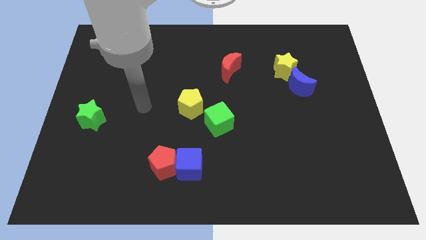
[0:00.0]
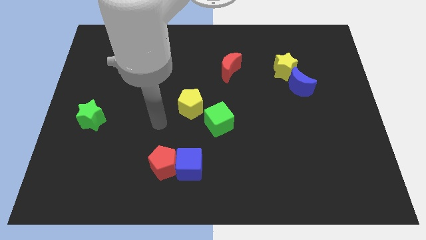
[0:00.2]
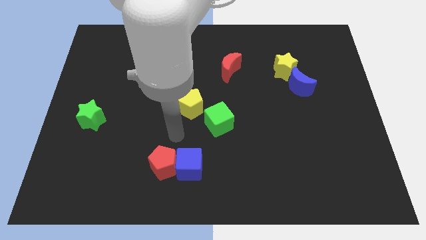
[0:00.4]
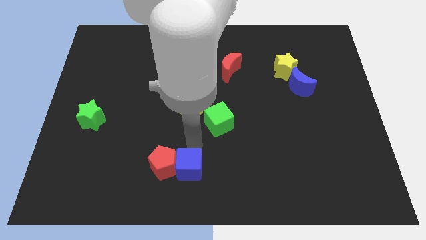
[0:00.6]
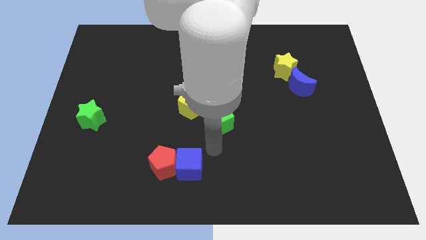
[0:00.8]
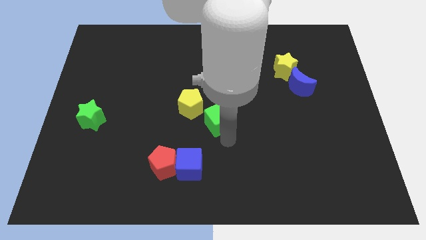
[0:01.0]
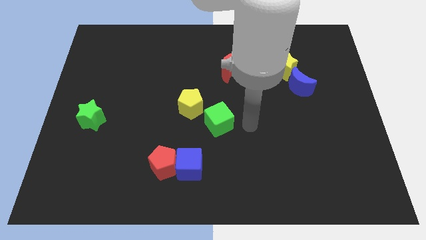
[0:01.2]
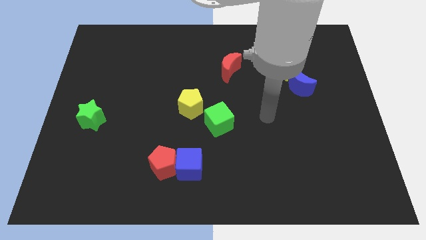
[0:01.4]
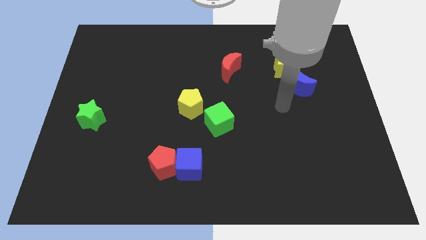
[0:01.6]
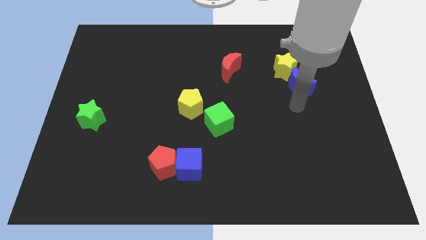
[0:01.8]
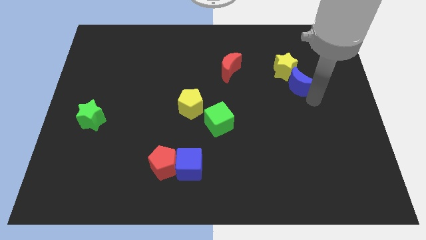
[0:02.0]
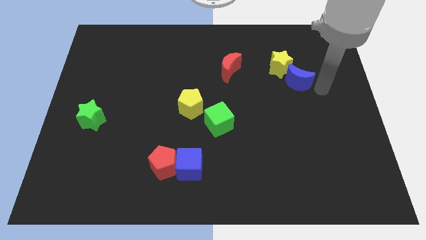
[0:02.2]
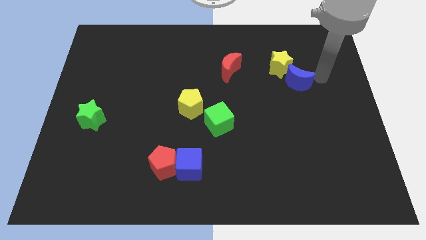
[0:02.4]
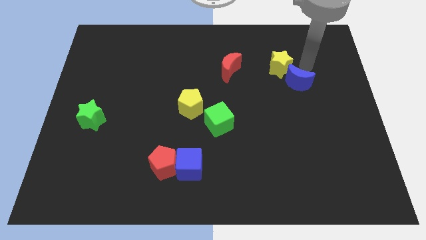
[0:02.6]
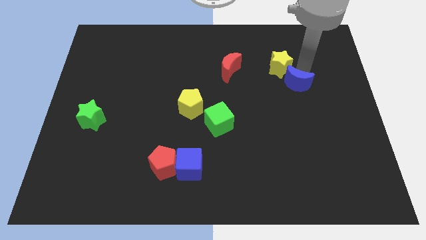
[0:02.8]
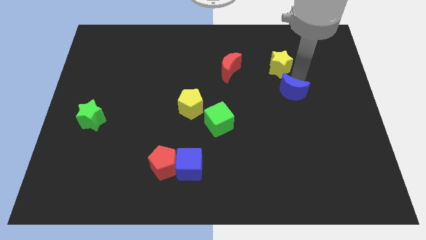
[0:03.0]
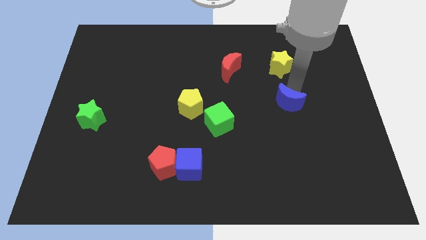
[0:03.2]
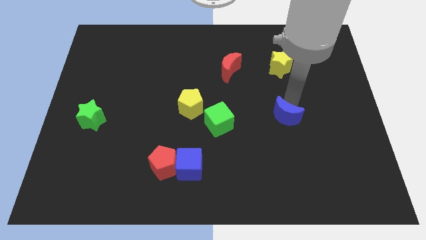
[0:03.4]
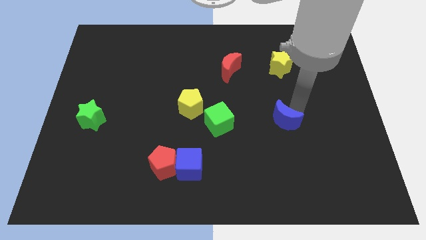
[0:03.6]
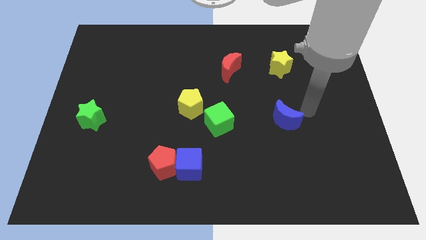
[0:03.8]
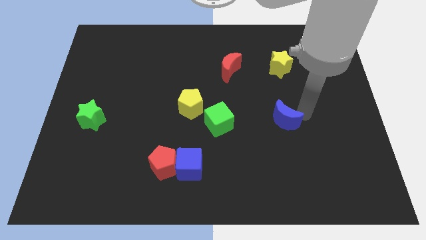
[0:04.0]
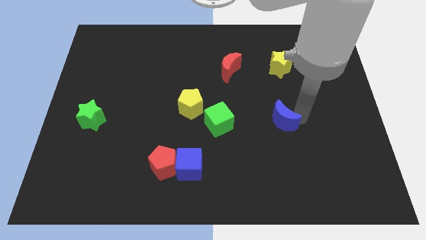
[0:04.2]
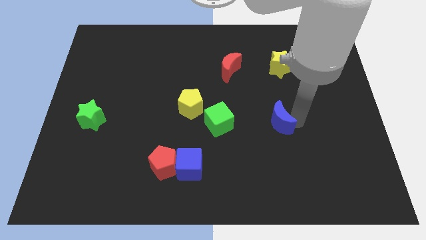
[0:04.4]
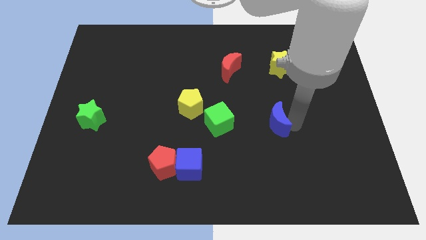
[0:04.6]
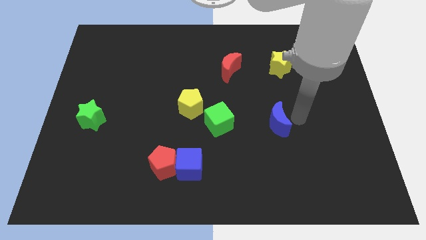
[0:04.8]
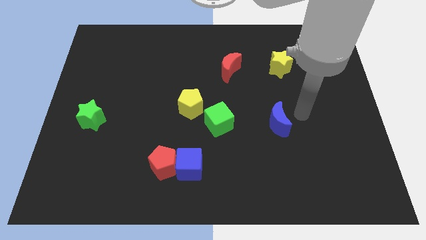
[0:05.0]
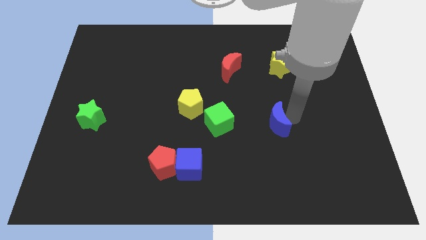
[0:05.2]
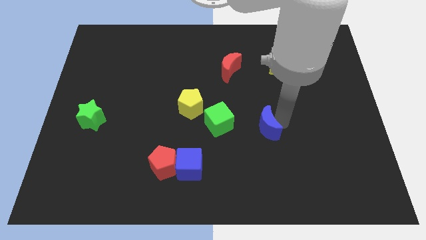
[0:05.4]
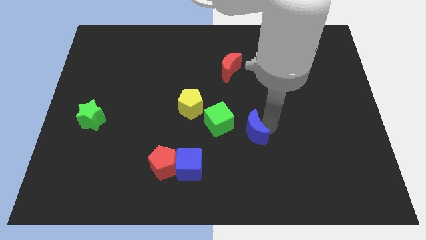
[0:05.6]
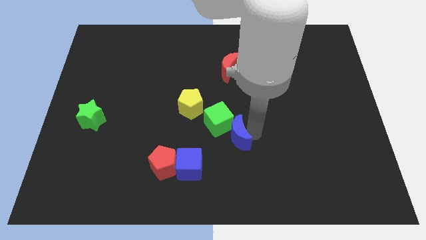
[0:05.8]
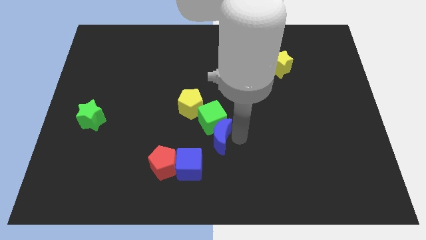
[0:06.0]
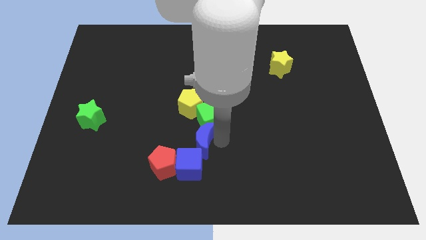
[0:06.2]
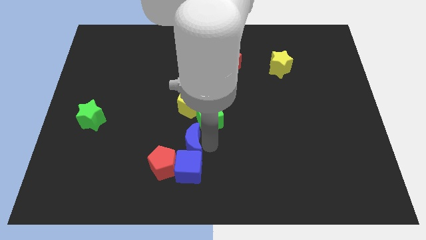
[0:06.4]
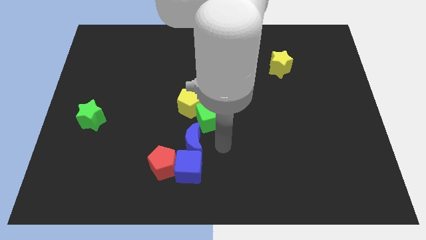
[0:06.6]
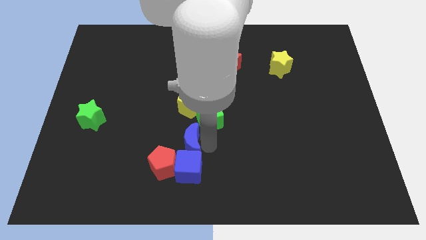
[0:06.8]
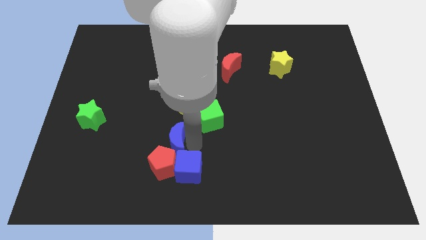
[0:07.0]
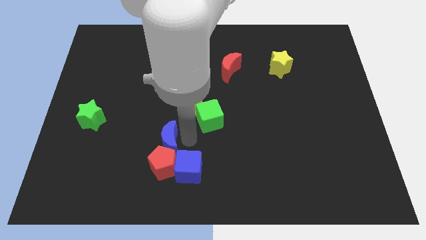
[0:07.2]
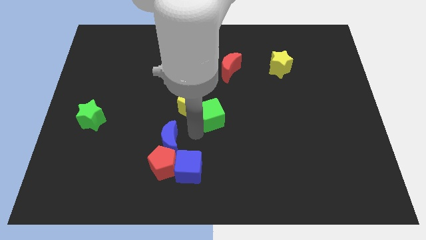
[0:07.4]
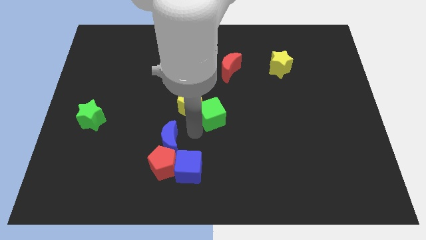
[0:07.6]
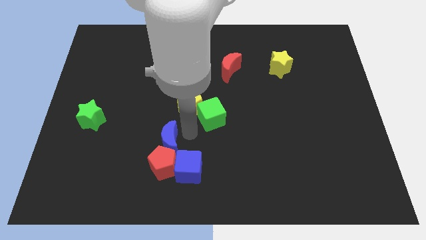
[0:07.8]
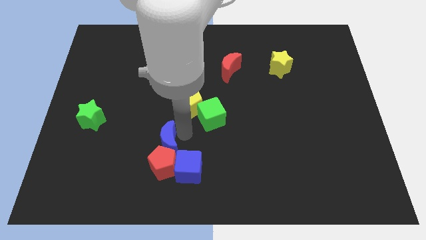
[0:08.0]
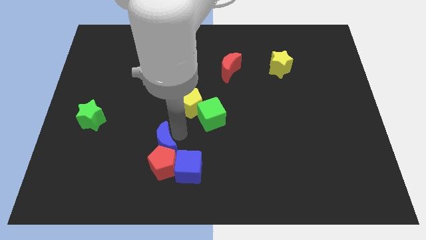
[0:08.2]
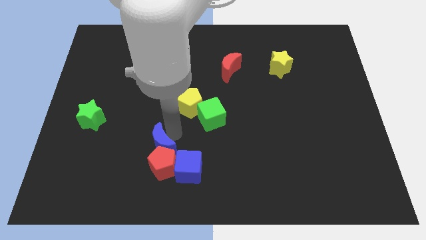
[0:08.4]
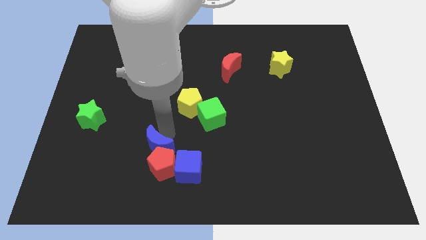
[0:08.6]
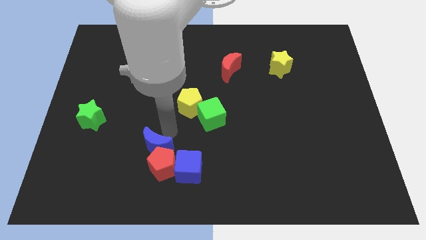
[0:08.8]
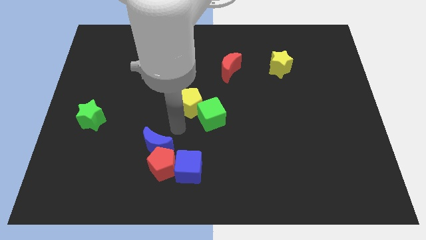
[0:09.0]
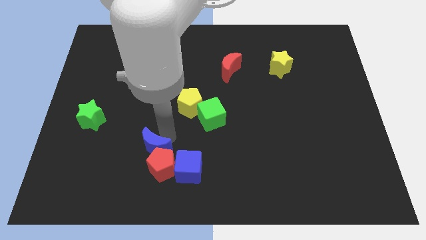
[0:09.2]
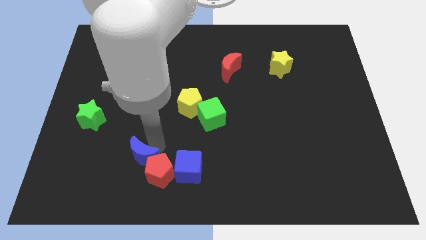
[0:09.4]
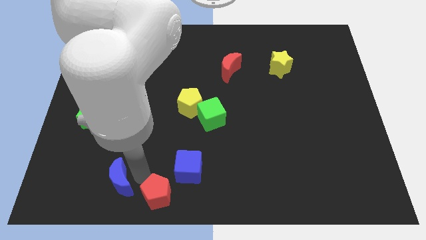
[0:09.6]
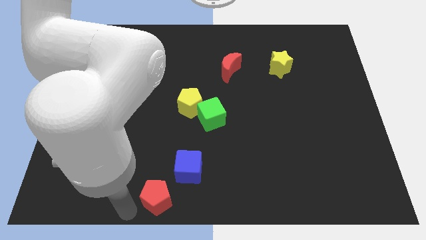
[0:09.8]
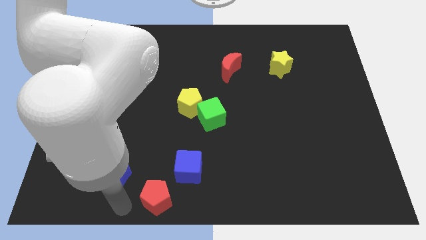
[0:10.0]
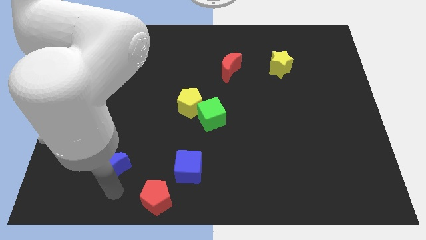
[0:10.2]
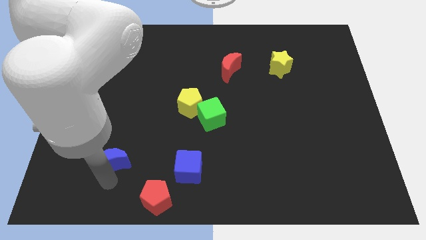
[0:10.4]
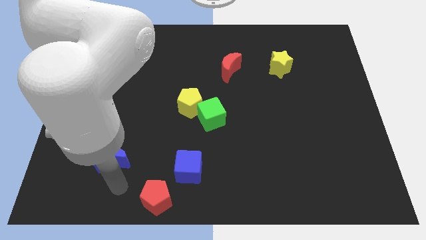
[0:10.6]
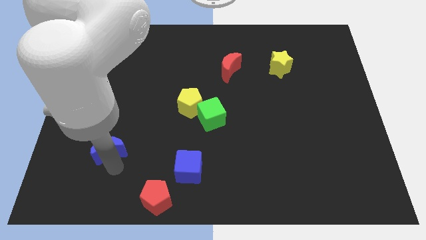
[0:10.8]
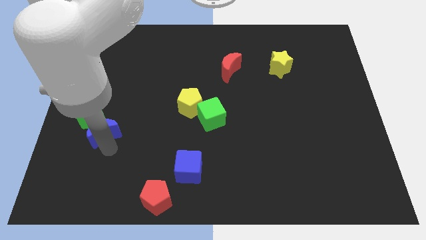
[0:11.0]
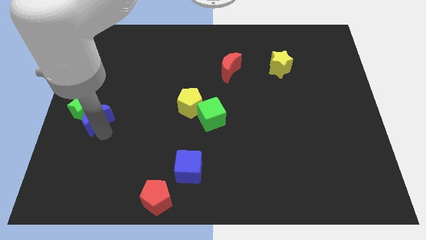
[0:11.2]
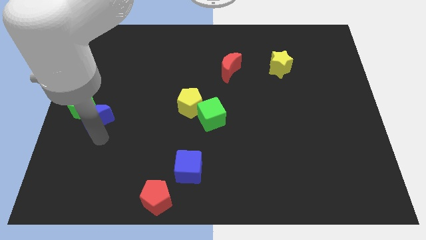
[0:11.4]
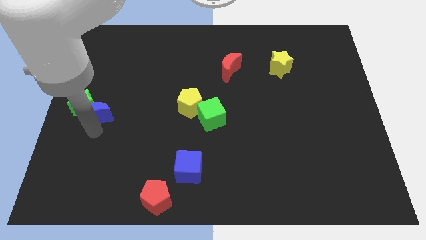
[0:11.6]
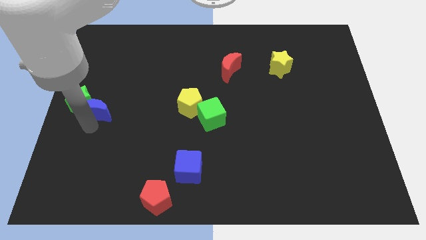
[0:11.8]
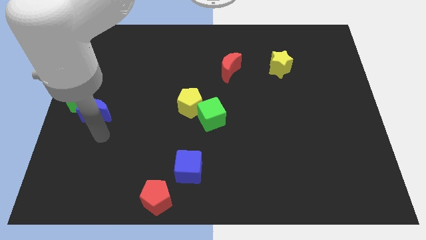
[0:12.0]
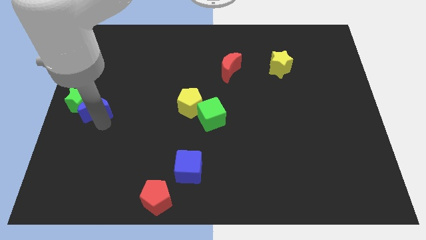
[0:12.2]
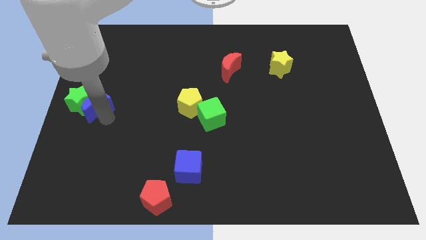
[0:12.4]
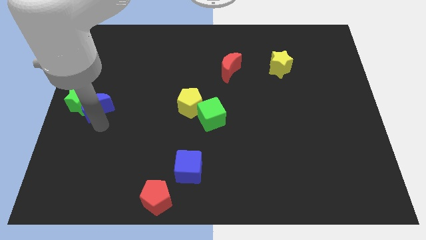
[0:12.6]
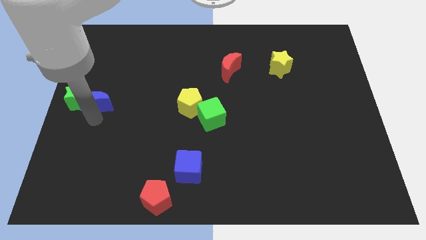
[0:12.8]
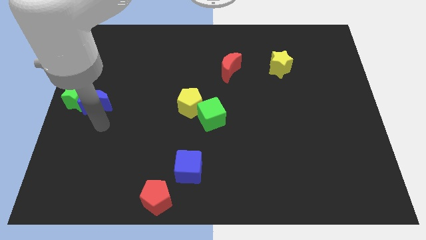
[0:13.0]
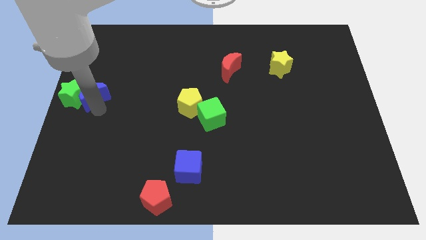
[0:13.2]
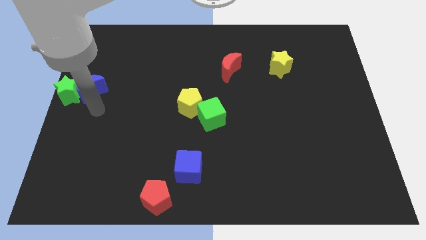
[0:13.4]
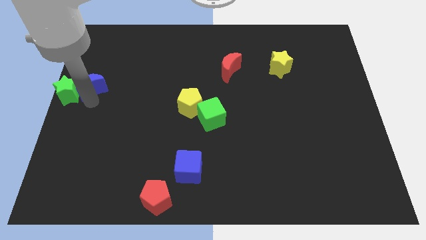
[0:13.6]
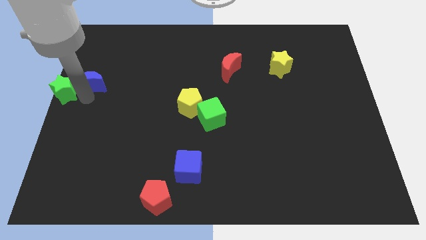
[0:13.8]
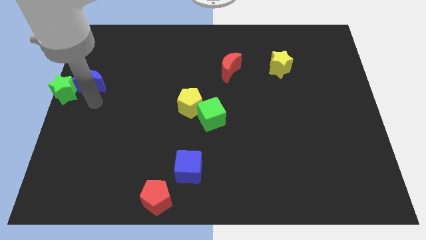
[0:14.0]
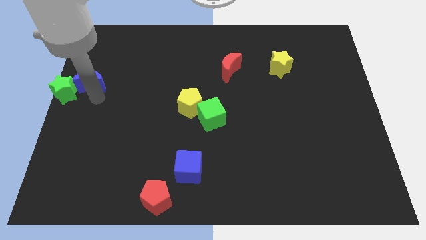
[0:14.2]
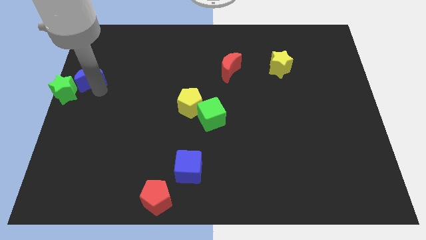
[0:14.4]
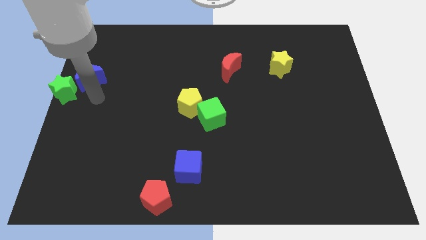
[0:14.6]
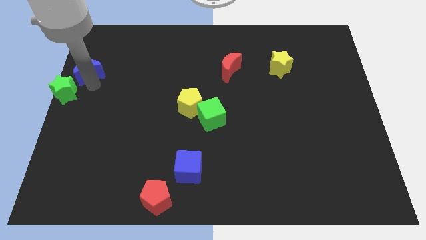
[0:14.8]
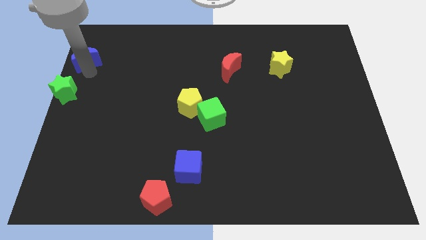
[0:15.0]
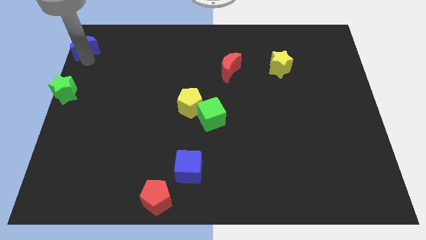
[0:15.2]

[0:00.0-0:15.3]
slide the blue moon to the upper left corner
